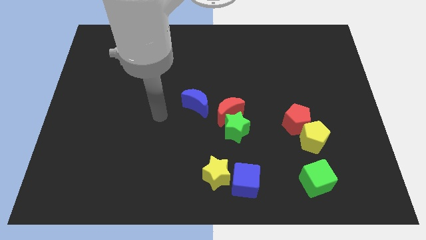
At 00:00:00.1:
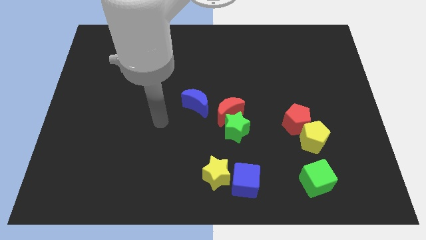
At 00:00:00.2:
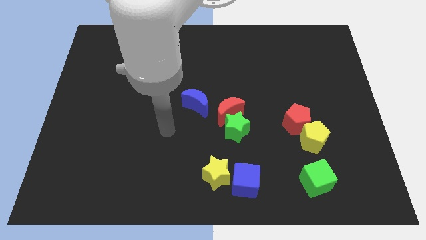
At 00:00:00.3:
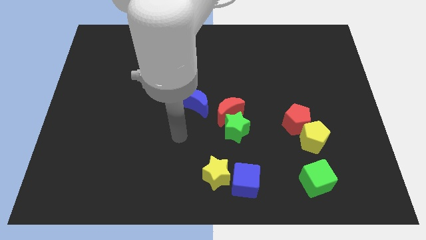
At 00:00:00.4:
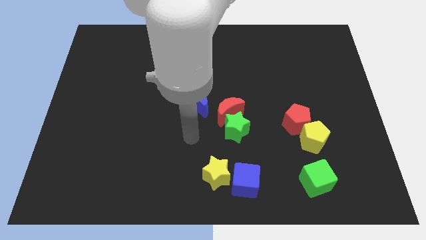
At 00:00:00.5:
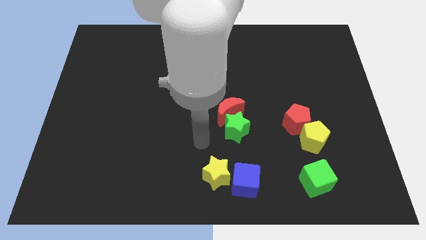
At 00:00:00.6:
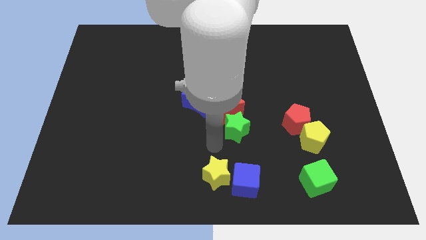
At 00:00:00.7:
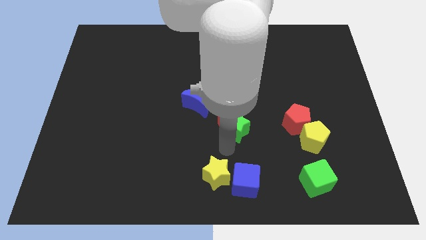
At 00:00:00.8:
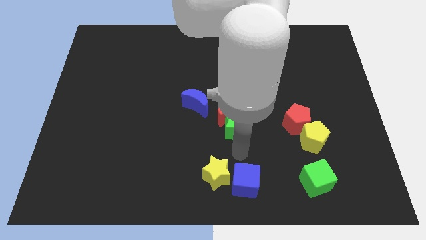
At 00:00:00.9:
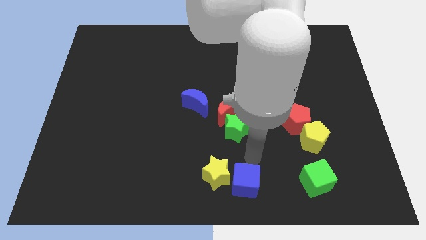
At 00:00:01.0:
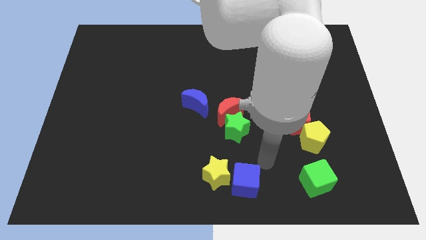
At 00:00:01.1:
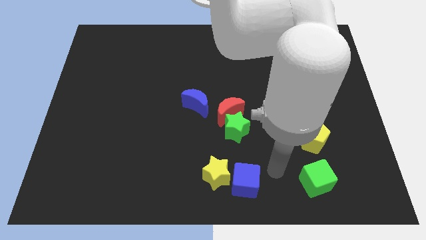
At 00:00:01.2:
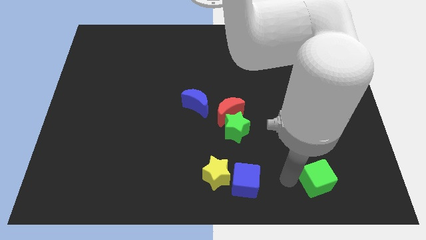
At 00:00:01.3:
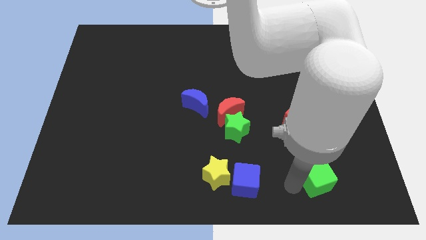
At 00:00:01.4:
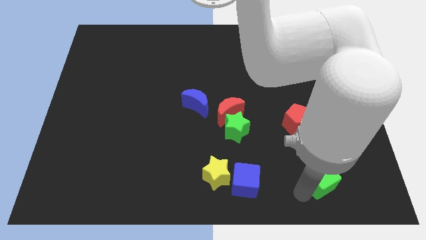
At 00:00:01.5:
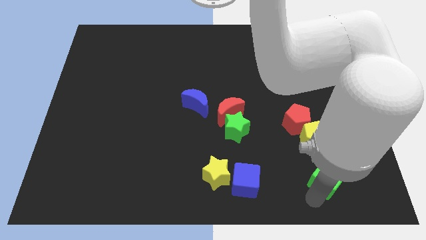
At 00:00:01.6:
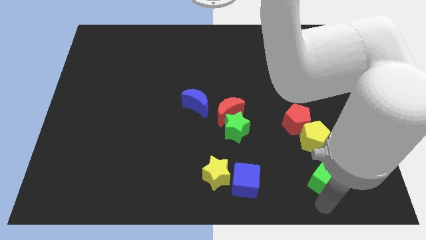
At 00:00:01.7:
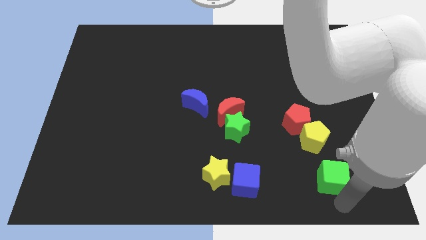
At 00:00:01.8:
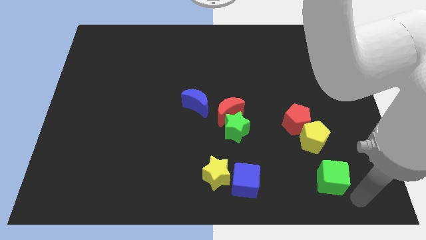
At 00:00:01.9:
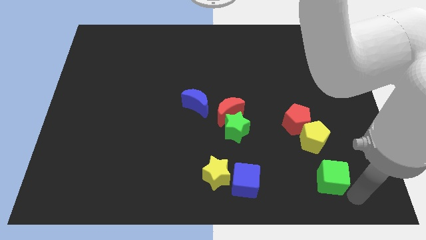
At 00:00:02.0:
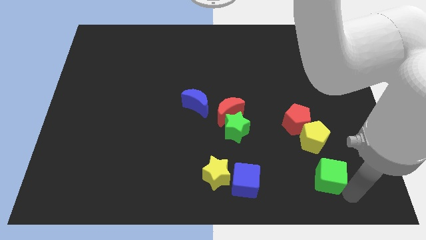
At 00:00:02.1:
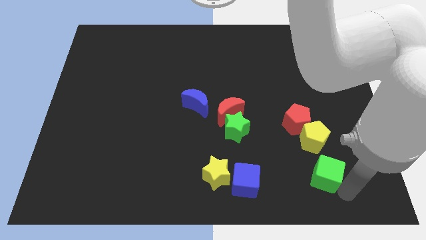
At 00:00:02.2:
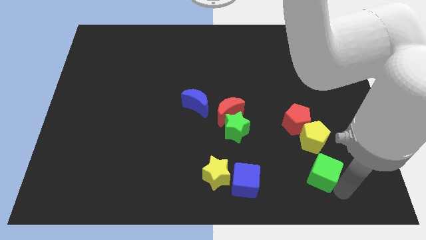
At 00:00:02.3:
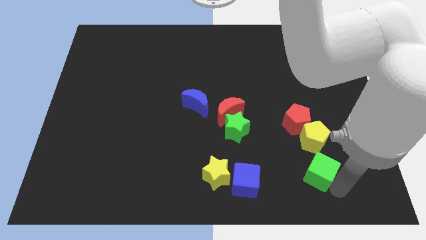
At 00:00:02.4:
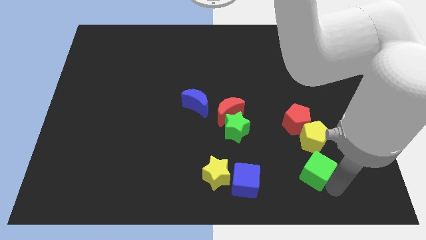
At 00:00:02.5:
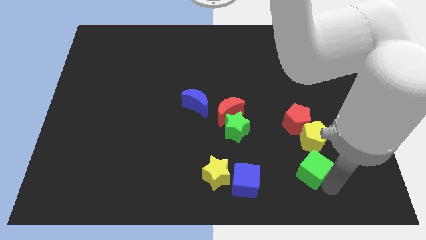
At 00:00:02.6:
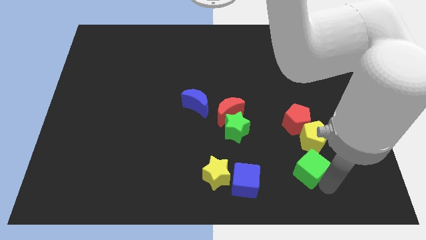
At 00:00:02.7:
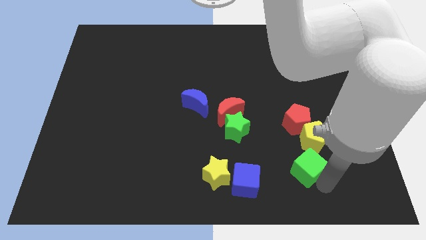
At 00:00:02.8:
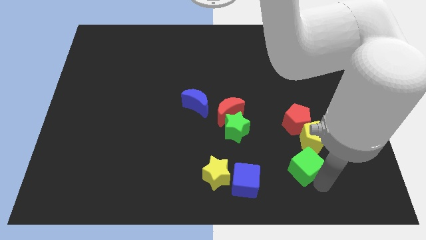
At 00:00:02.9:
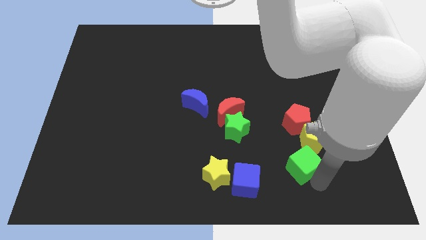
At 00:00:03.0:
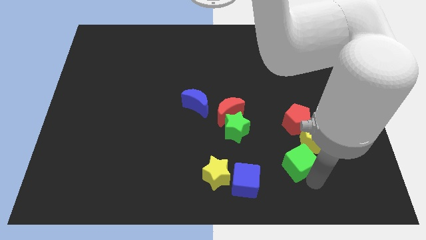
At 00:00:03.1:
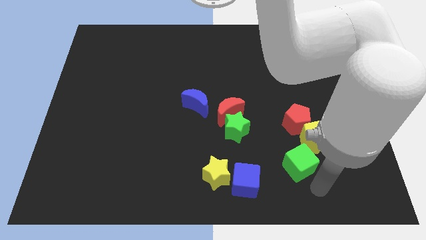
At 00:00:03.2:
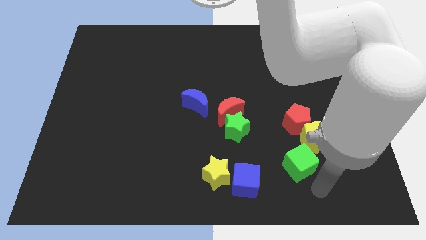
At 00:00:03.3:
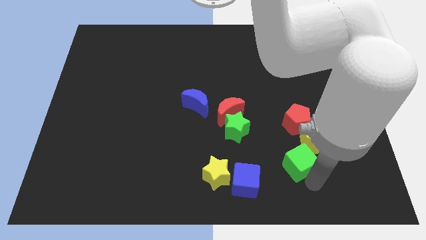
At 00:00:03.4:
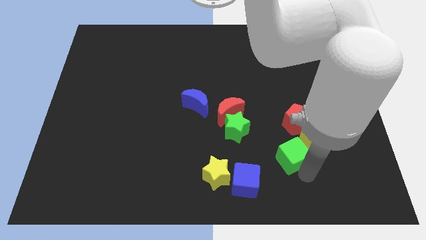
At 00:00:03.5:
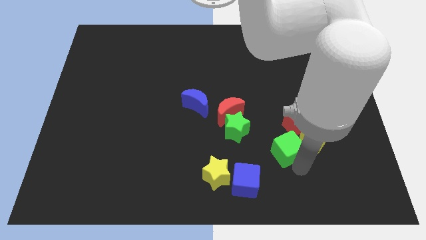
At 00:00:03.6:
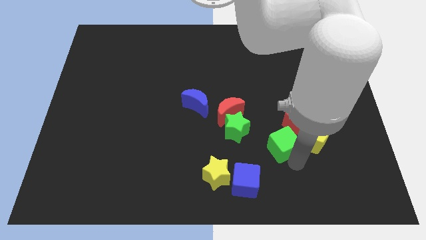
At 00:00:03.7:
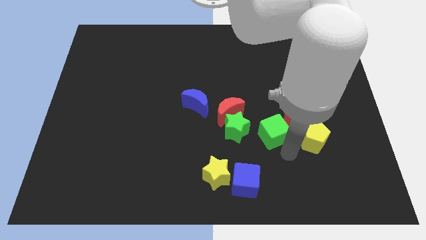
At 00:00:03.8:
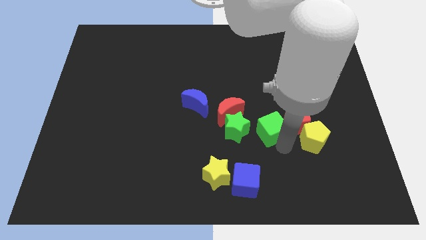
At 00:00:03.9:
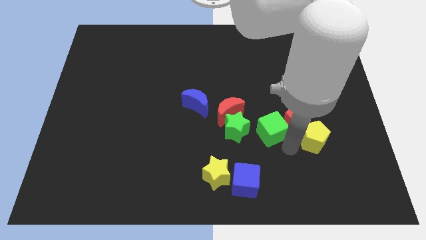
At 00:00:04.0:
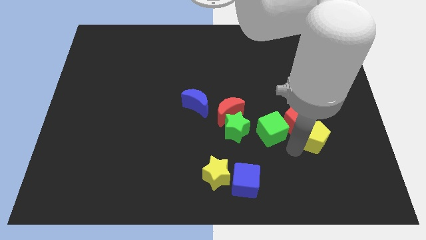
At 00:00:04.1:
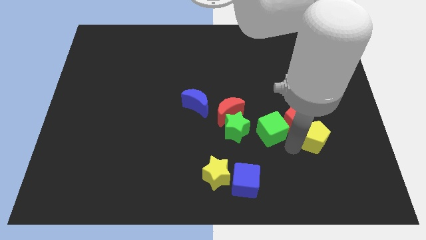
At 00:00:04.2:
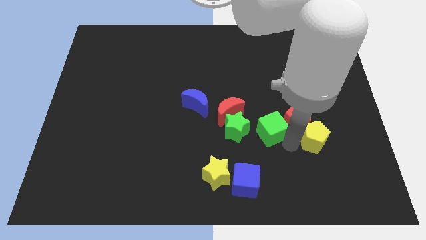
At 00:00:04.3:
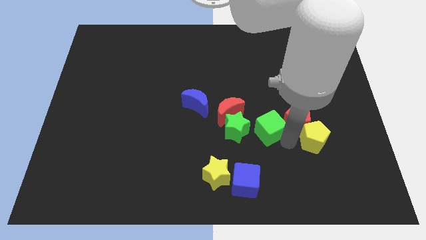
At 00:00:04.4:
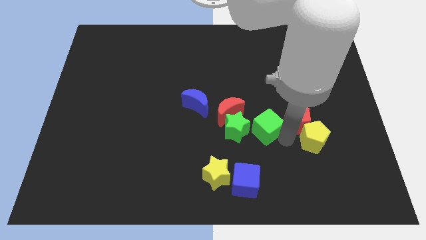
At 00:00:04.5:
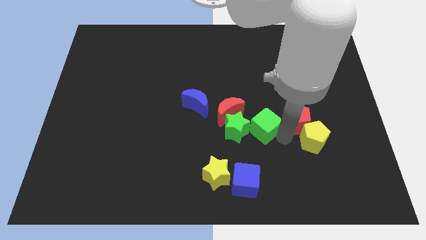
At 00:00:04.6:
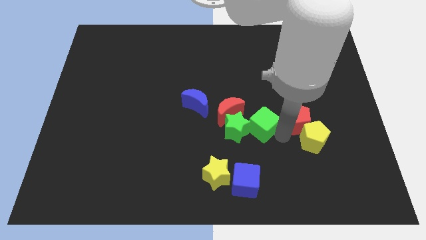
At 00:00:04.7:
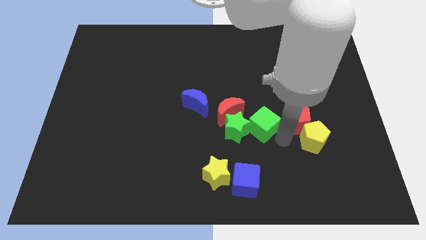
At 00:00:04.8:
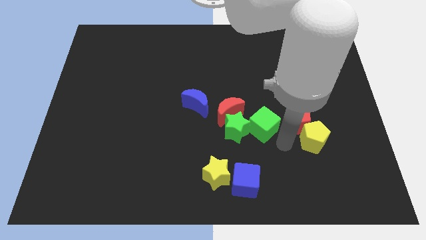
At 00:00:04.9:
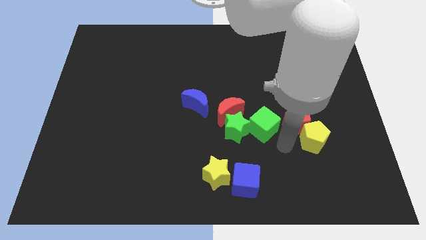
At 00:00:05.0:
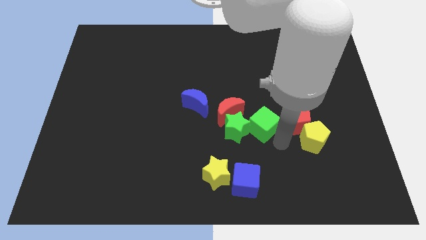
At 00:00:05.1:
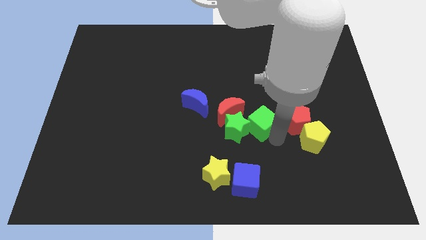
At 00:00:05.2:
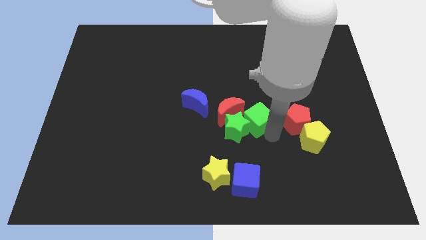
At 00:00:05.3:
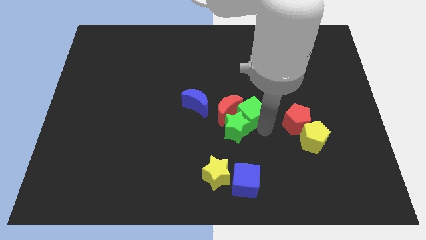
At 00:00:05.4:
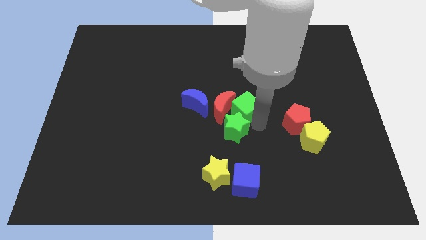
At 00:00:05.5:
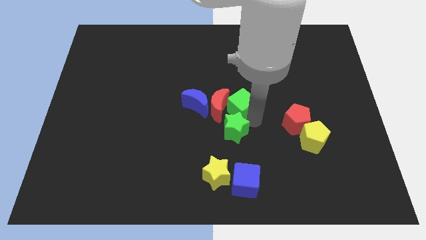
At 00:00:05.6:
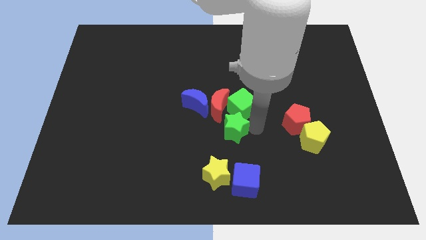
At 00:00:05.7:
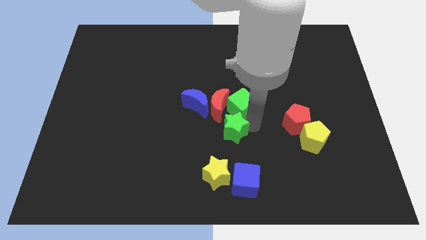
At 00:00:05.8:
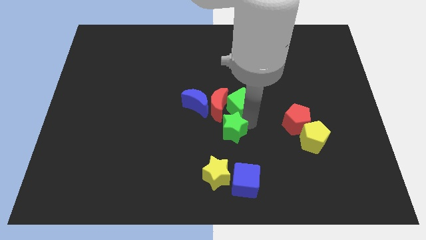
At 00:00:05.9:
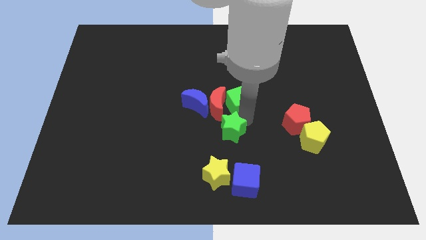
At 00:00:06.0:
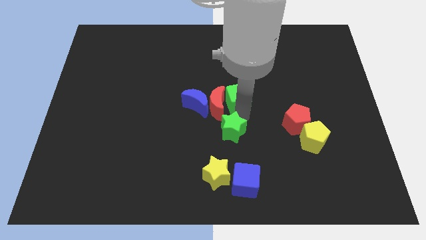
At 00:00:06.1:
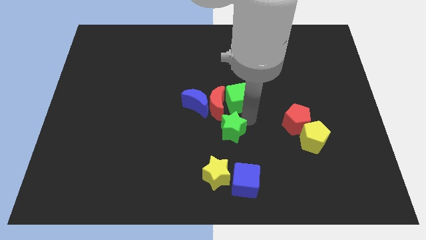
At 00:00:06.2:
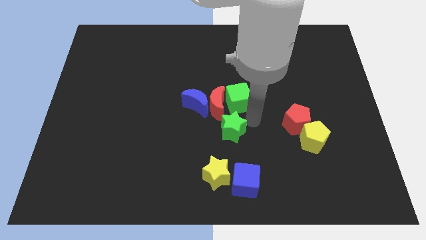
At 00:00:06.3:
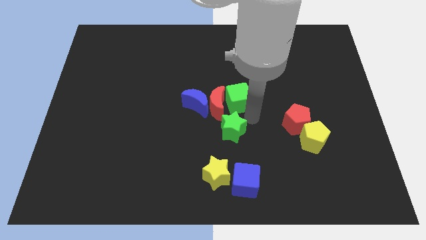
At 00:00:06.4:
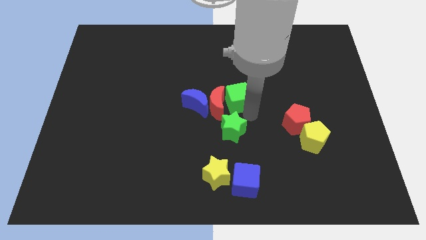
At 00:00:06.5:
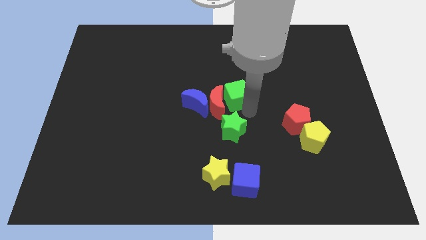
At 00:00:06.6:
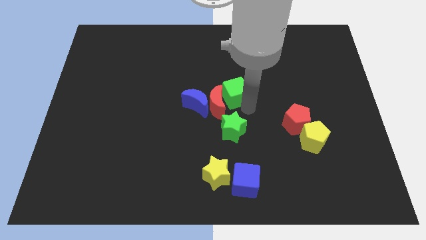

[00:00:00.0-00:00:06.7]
put the green cube above the red moon

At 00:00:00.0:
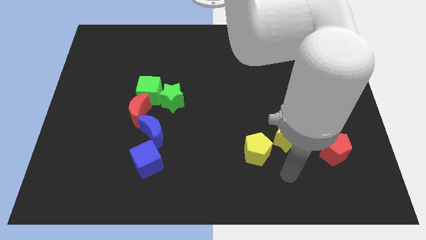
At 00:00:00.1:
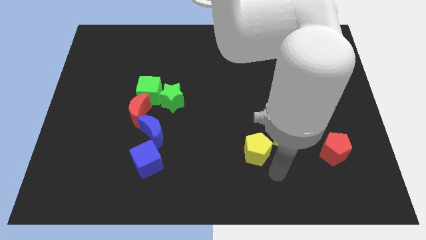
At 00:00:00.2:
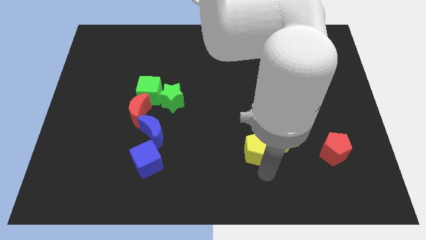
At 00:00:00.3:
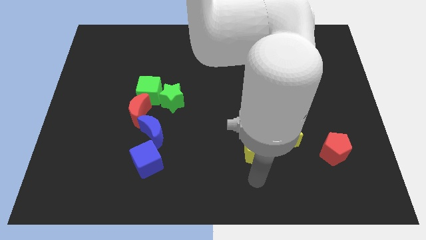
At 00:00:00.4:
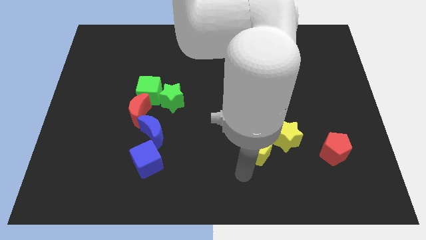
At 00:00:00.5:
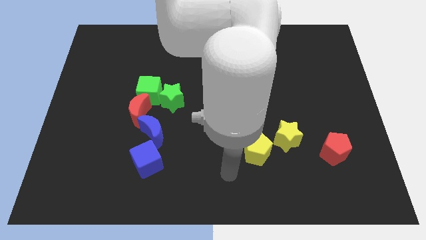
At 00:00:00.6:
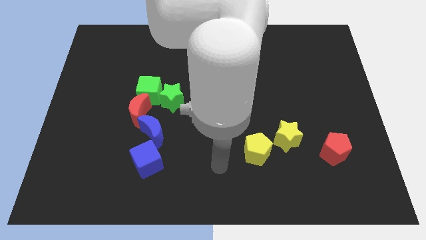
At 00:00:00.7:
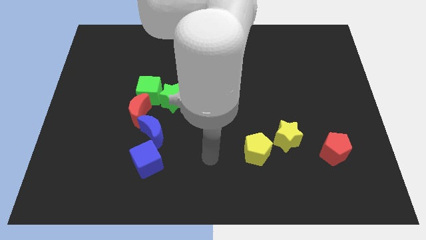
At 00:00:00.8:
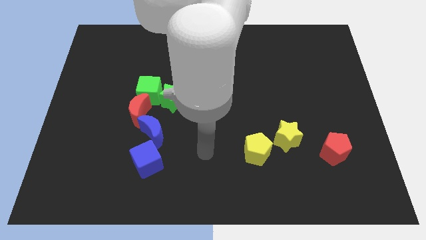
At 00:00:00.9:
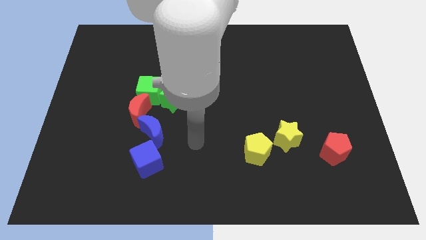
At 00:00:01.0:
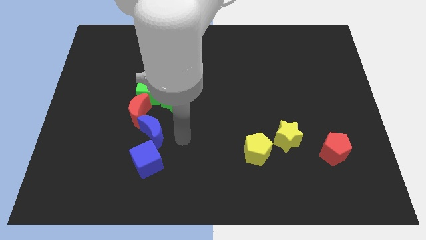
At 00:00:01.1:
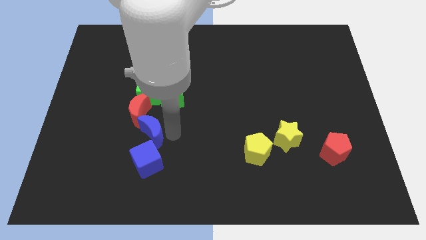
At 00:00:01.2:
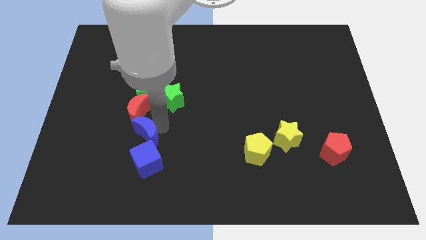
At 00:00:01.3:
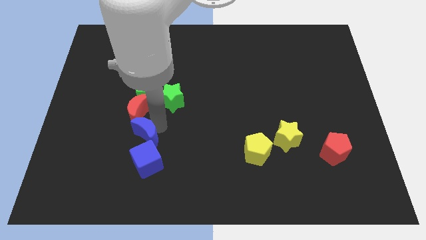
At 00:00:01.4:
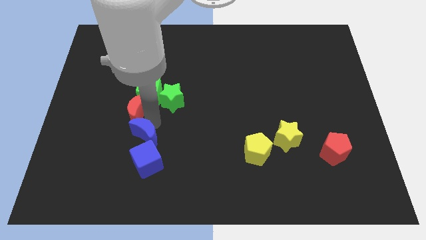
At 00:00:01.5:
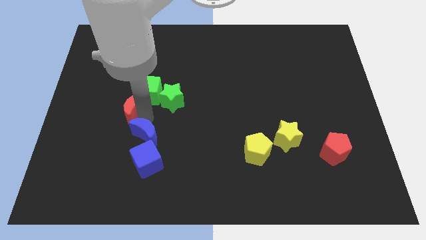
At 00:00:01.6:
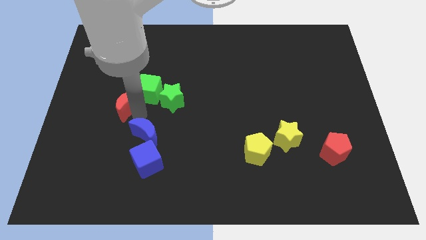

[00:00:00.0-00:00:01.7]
slide the red moon left of the green cube
